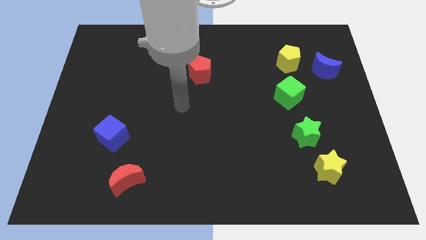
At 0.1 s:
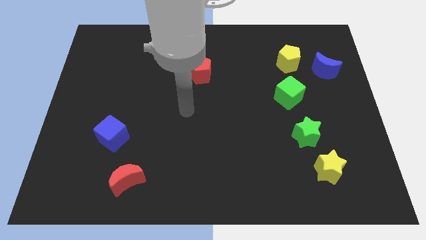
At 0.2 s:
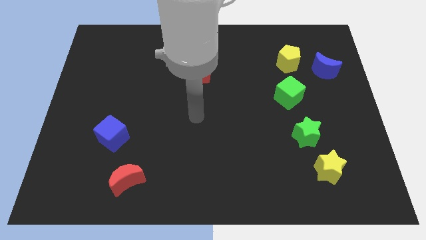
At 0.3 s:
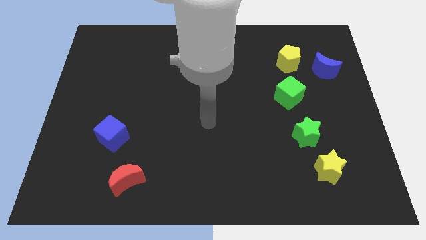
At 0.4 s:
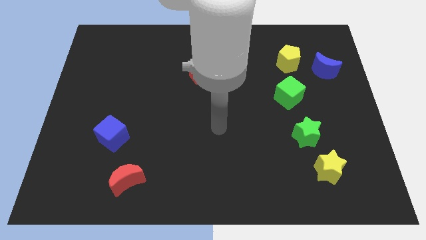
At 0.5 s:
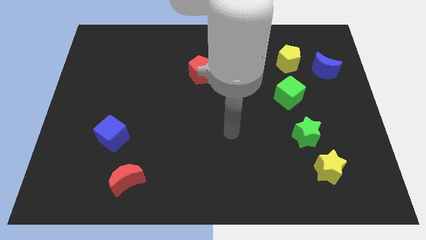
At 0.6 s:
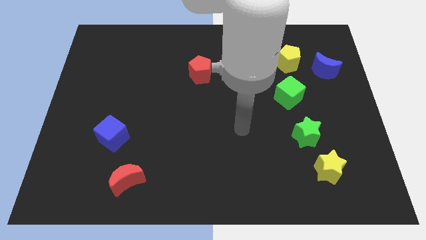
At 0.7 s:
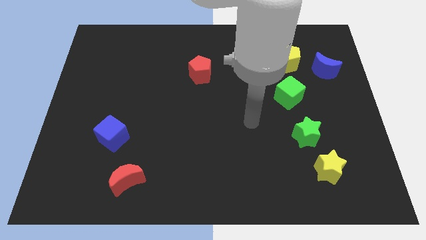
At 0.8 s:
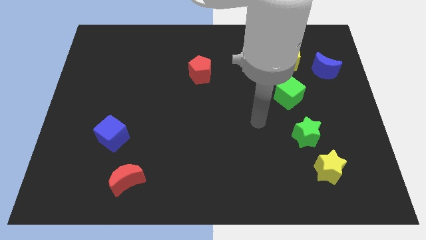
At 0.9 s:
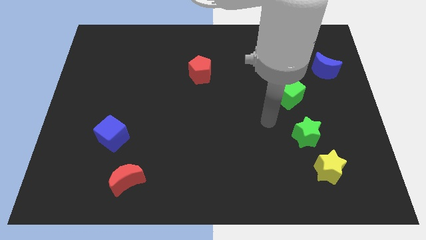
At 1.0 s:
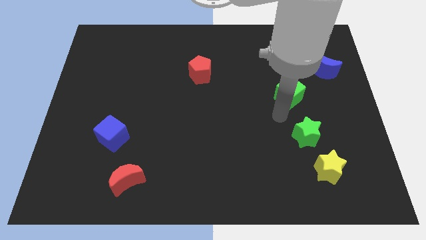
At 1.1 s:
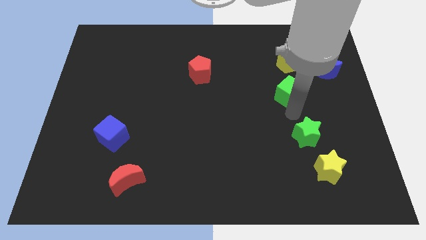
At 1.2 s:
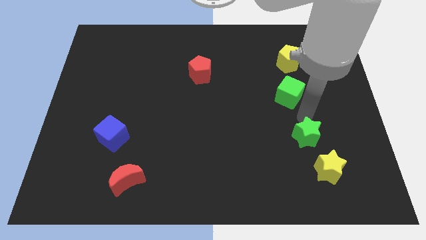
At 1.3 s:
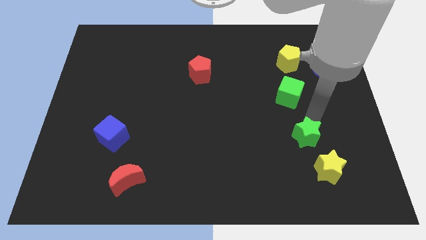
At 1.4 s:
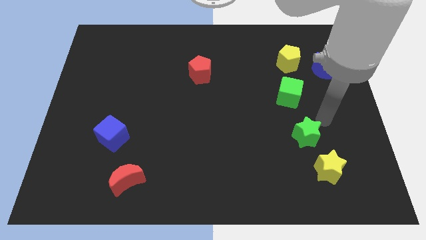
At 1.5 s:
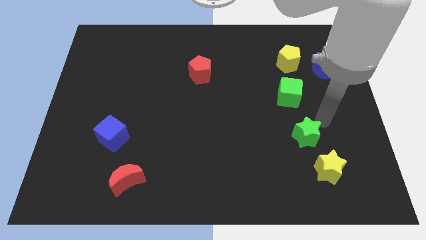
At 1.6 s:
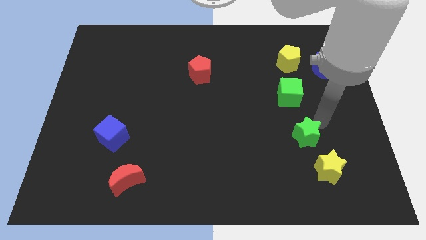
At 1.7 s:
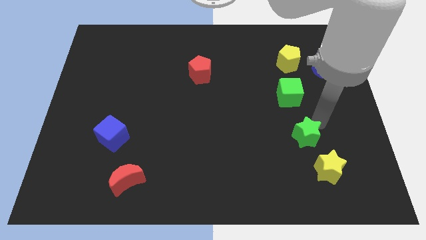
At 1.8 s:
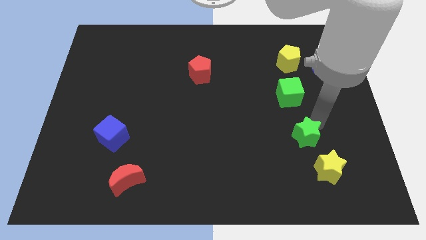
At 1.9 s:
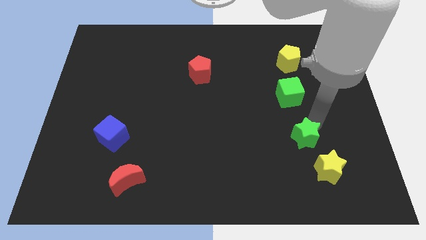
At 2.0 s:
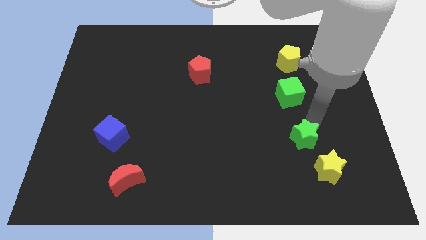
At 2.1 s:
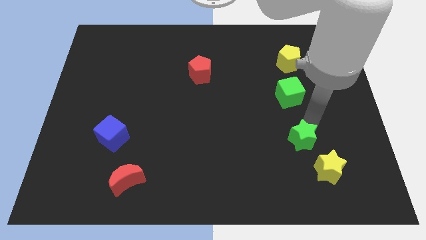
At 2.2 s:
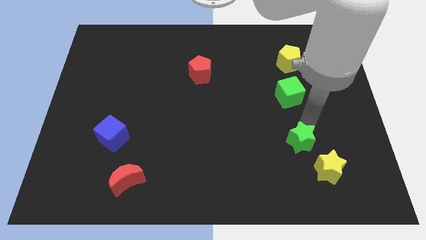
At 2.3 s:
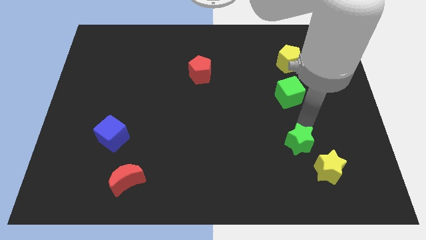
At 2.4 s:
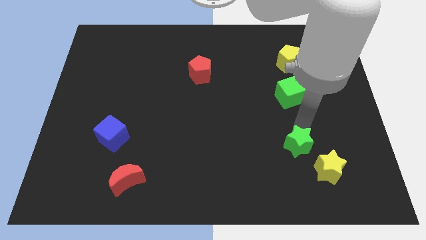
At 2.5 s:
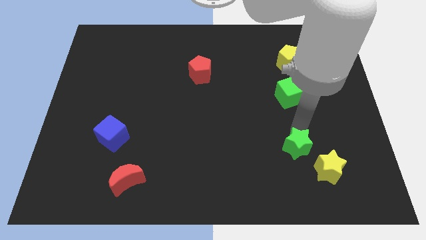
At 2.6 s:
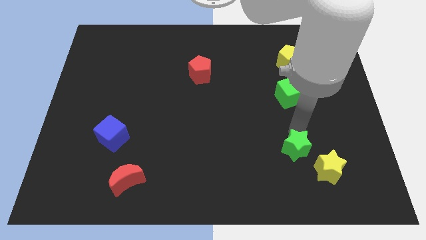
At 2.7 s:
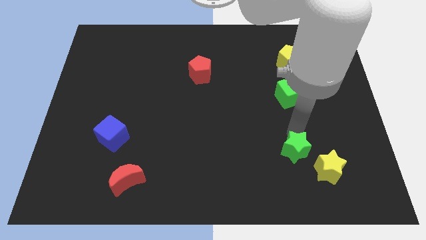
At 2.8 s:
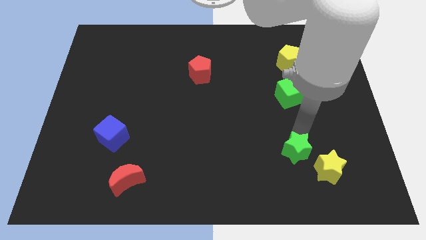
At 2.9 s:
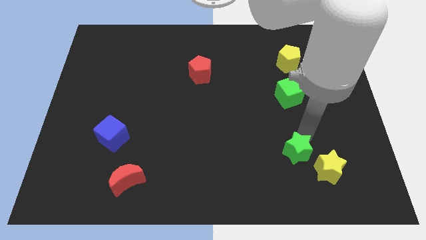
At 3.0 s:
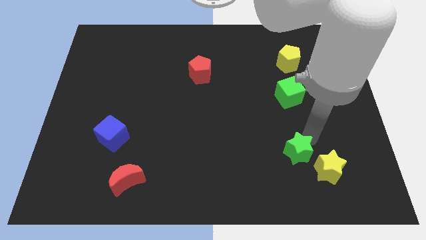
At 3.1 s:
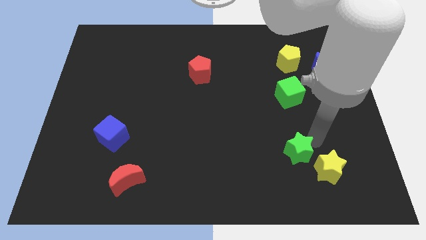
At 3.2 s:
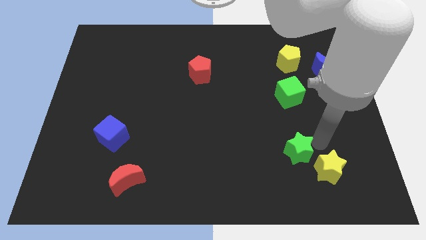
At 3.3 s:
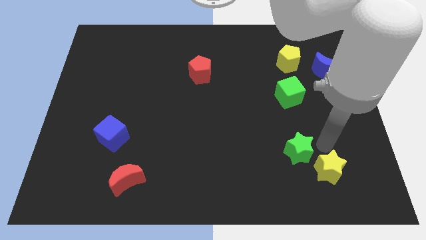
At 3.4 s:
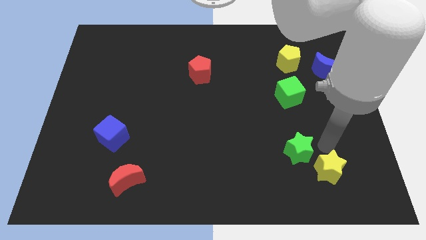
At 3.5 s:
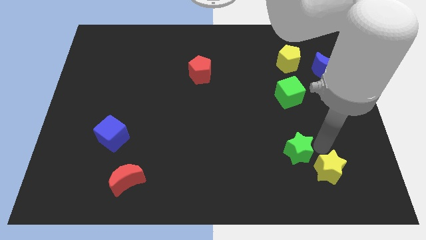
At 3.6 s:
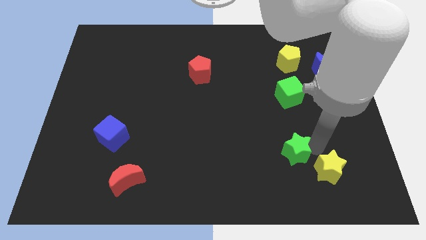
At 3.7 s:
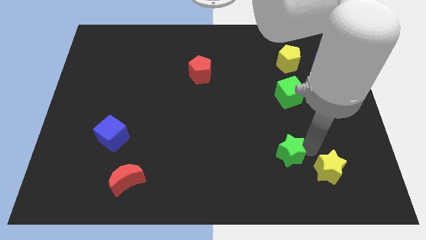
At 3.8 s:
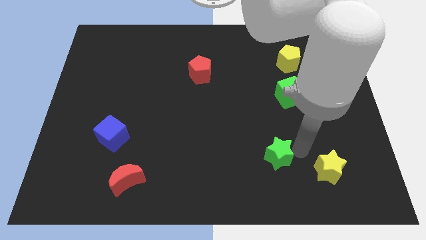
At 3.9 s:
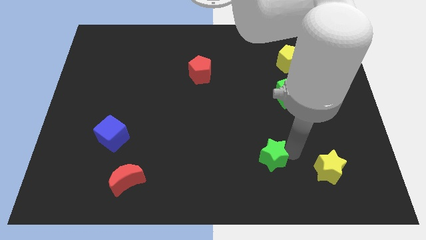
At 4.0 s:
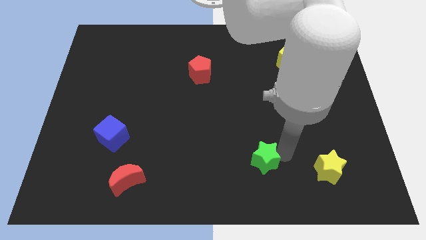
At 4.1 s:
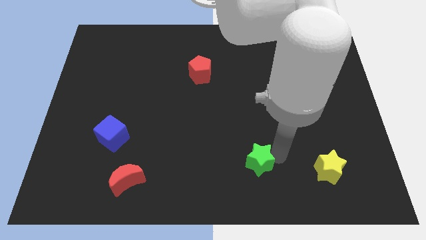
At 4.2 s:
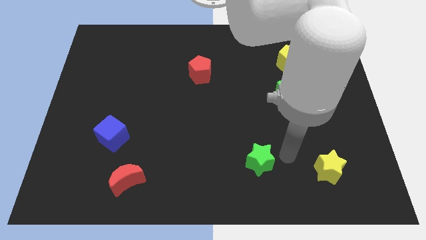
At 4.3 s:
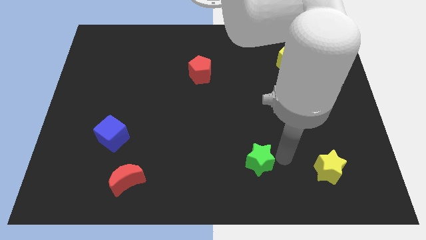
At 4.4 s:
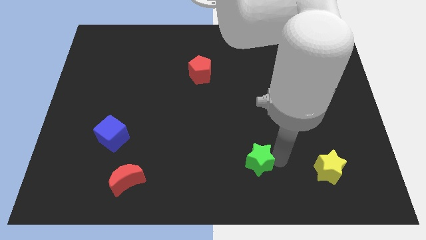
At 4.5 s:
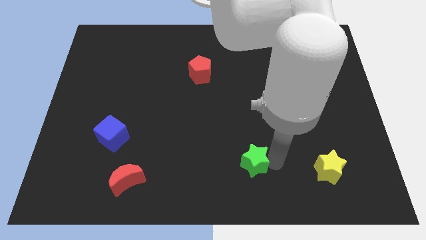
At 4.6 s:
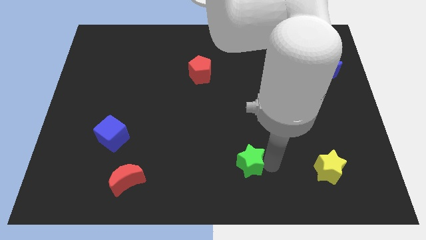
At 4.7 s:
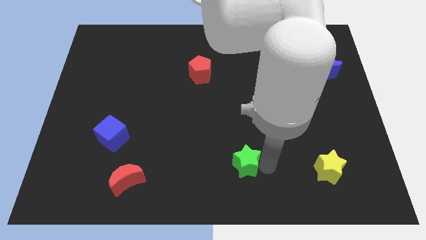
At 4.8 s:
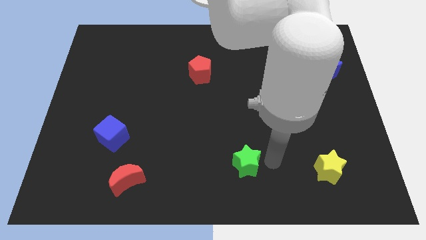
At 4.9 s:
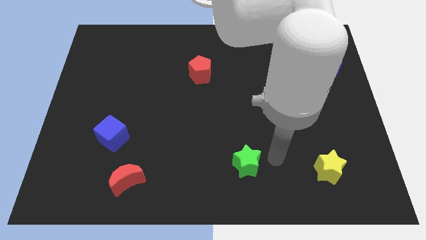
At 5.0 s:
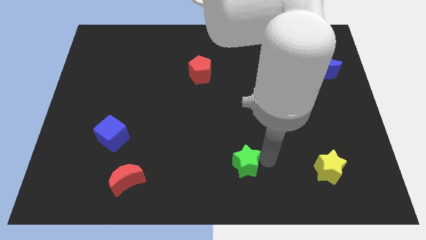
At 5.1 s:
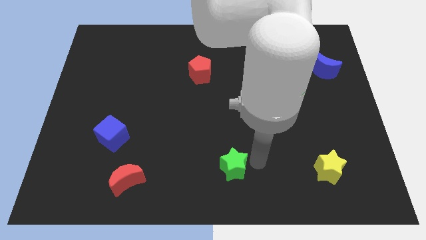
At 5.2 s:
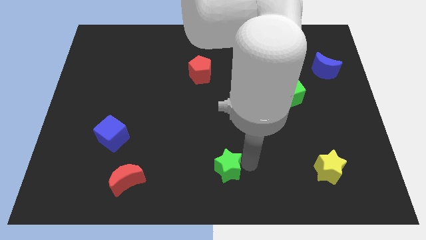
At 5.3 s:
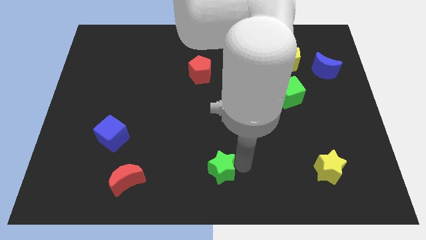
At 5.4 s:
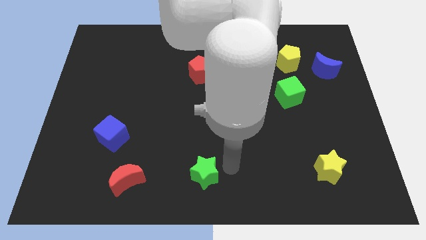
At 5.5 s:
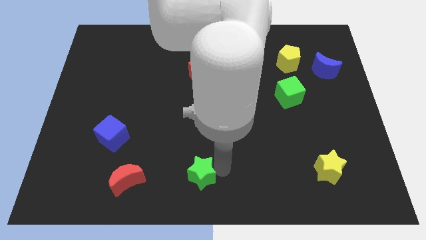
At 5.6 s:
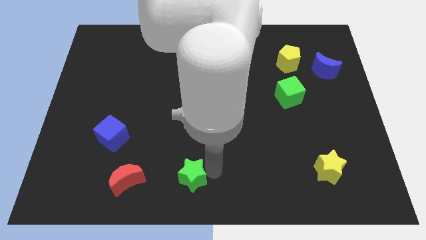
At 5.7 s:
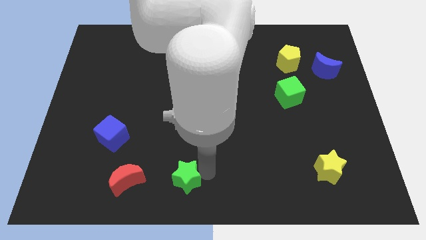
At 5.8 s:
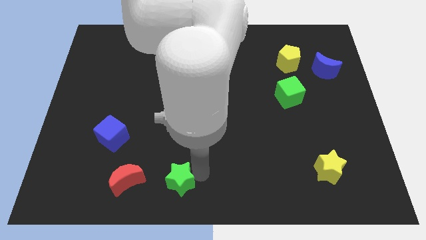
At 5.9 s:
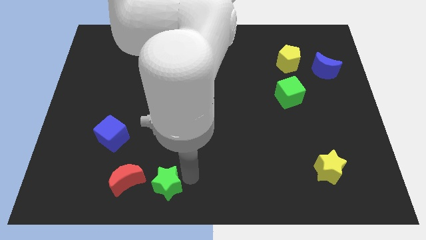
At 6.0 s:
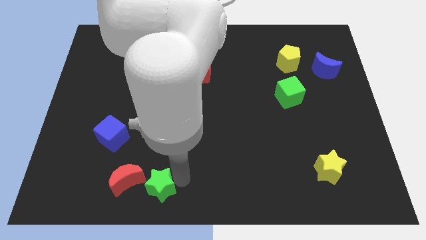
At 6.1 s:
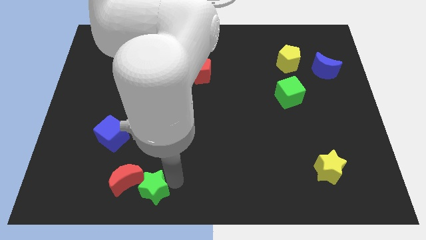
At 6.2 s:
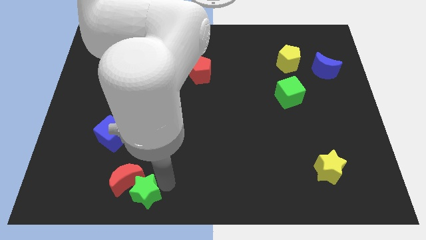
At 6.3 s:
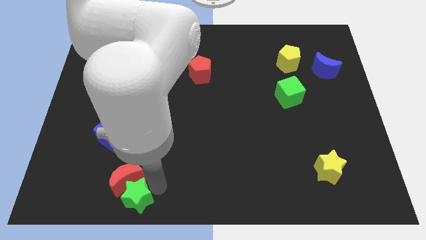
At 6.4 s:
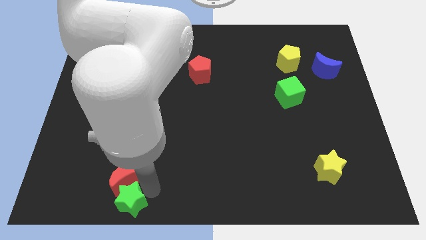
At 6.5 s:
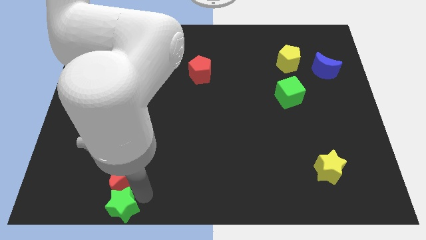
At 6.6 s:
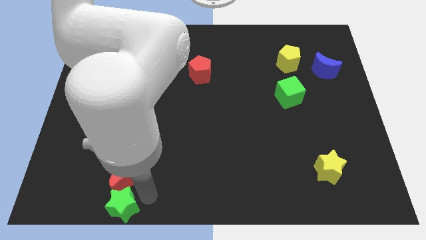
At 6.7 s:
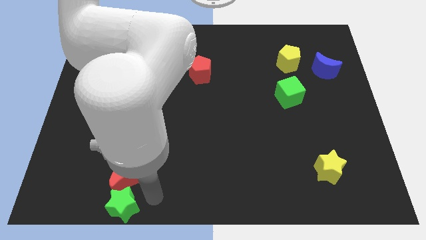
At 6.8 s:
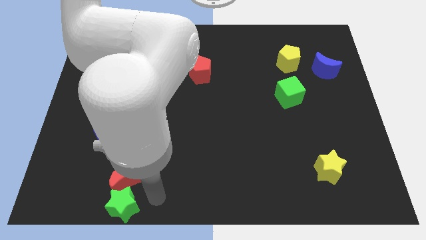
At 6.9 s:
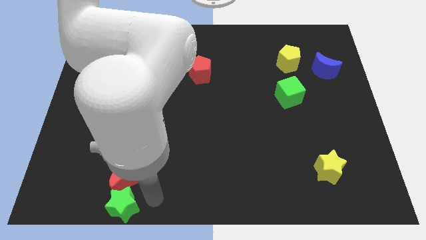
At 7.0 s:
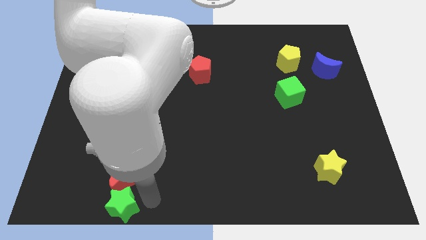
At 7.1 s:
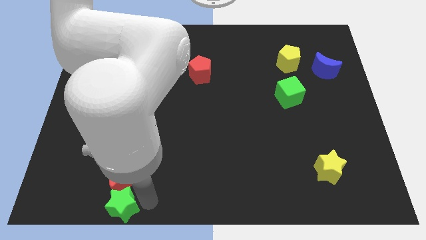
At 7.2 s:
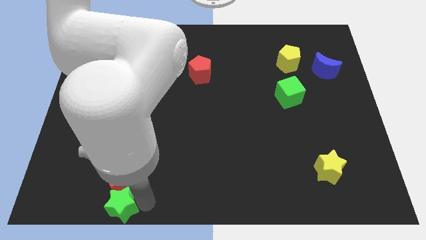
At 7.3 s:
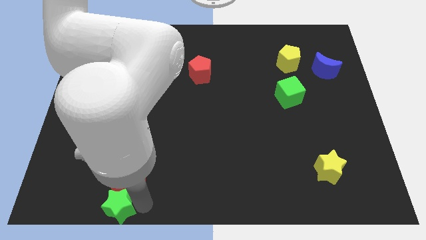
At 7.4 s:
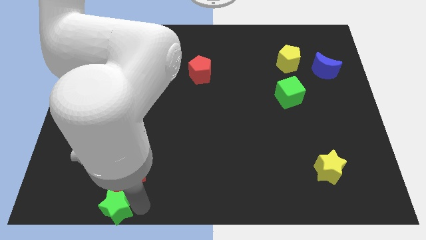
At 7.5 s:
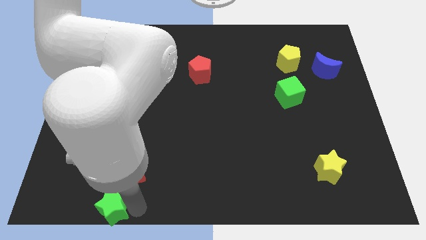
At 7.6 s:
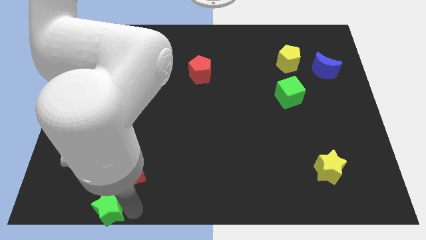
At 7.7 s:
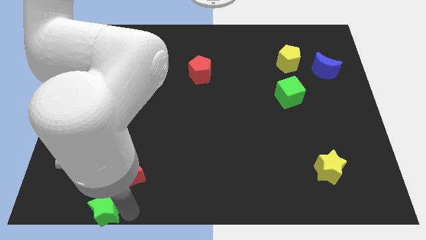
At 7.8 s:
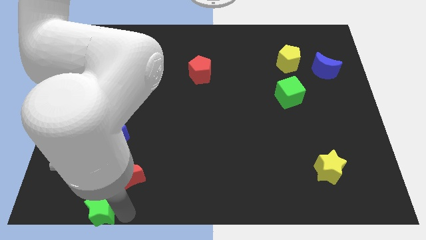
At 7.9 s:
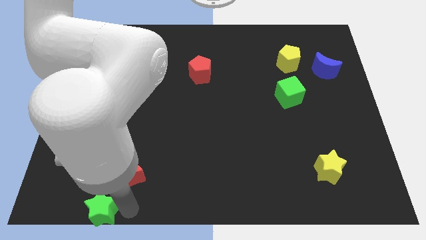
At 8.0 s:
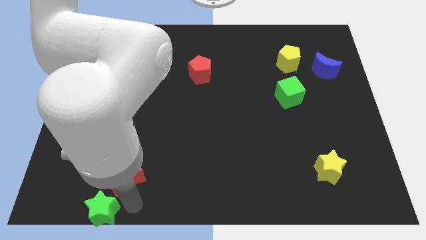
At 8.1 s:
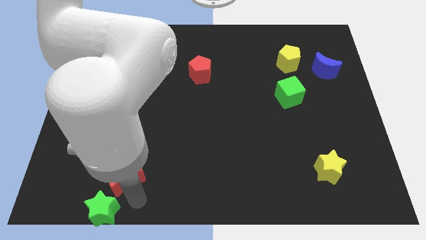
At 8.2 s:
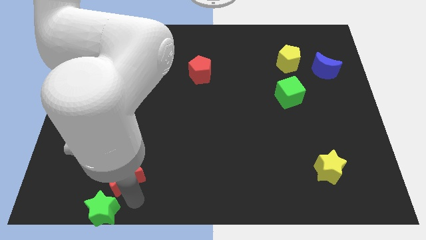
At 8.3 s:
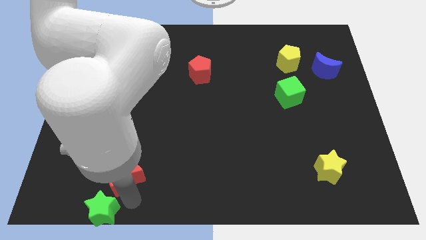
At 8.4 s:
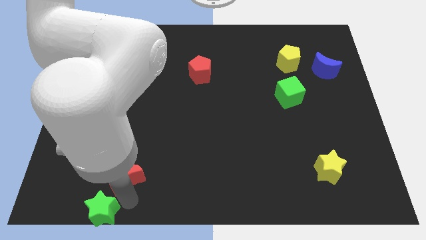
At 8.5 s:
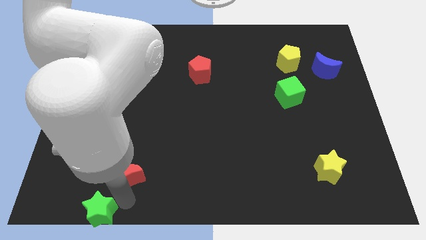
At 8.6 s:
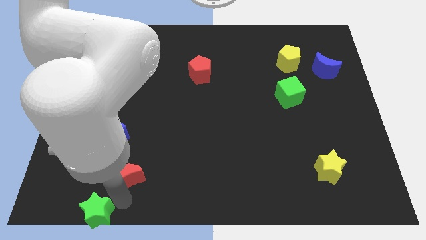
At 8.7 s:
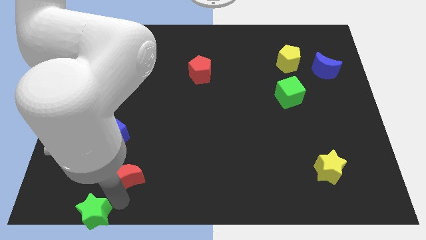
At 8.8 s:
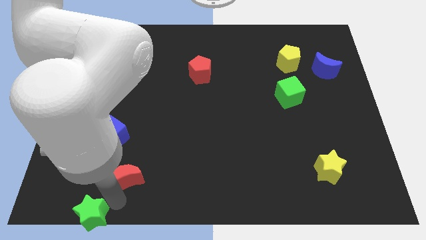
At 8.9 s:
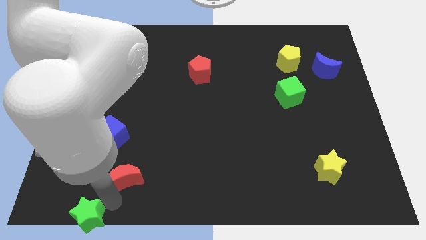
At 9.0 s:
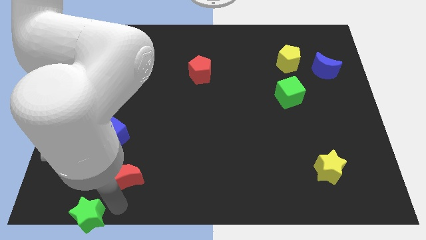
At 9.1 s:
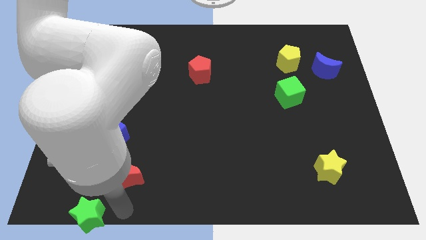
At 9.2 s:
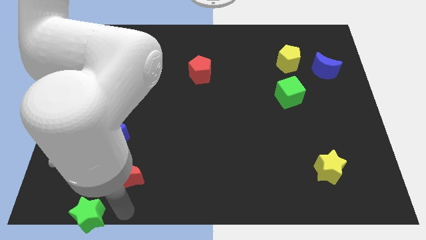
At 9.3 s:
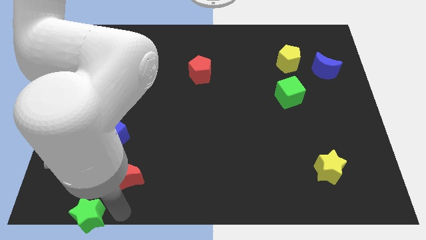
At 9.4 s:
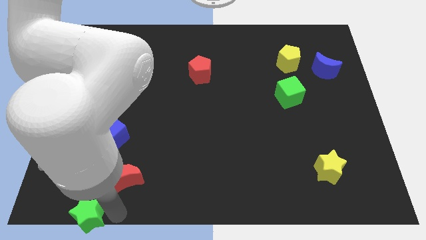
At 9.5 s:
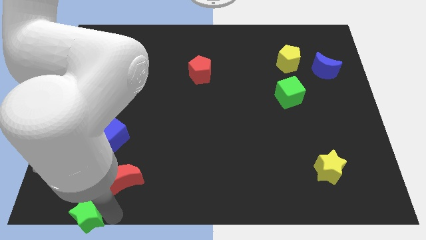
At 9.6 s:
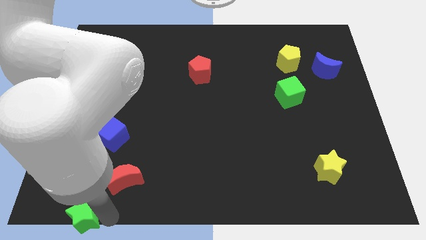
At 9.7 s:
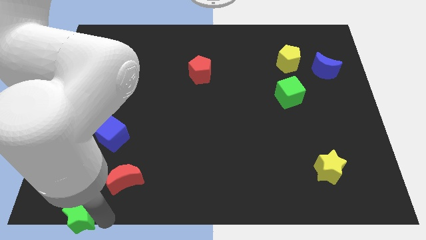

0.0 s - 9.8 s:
move the green star to the bottom left corner
